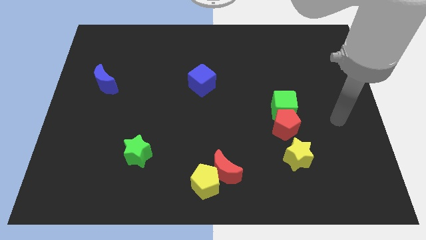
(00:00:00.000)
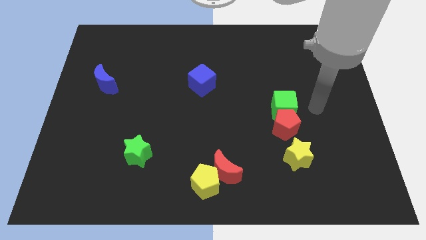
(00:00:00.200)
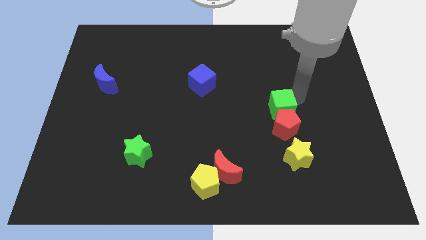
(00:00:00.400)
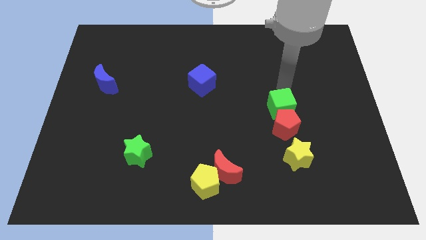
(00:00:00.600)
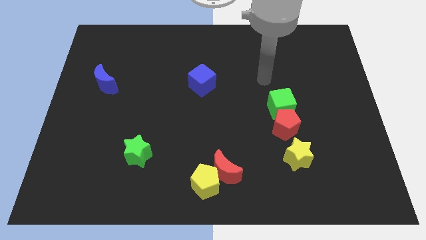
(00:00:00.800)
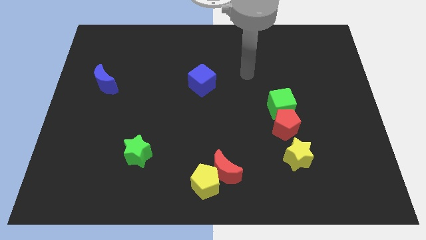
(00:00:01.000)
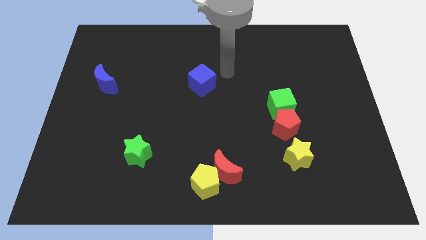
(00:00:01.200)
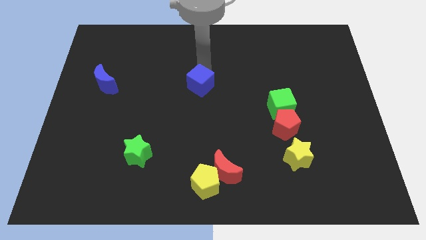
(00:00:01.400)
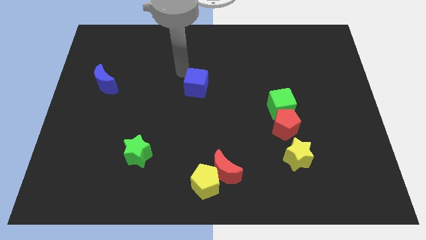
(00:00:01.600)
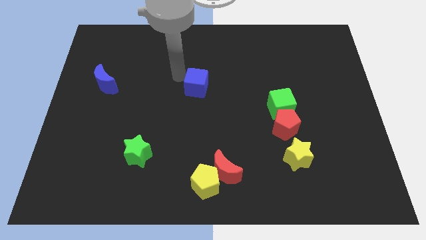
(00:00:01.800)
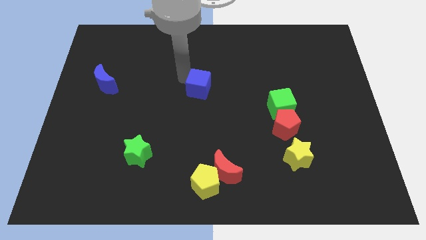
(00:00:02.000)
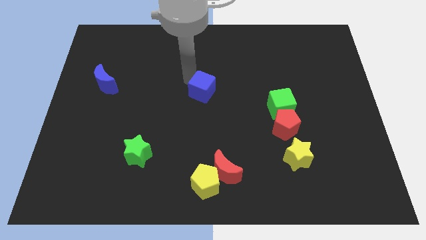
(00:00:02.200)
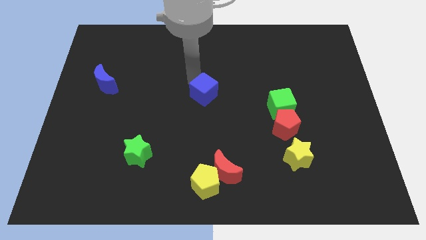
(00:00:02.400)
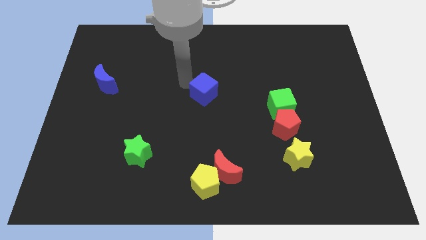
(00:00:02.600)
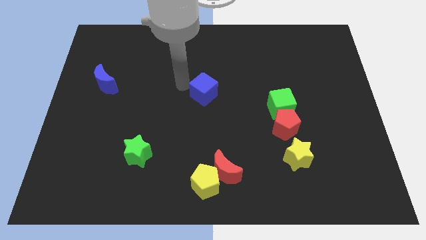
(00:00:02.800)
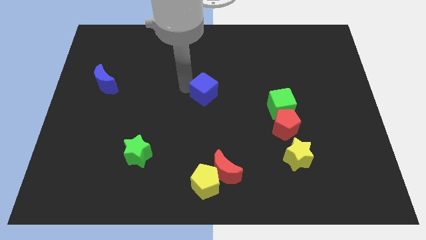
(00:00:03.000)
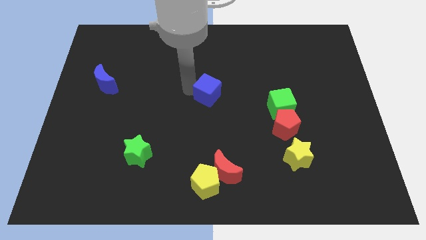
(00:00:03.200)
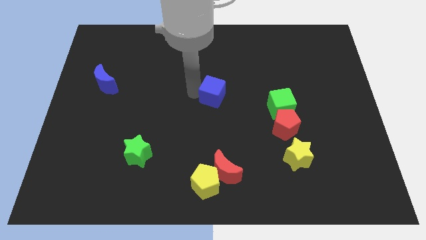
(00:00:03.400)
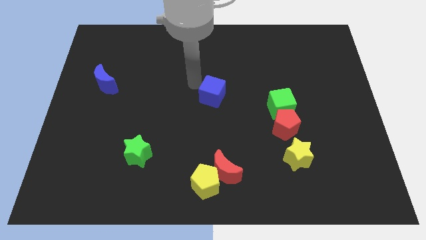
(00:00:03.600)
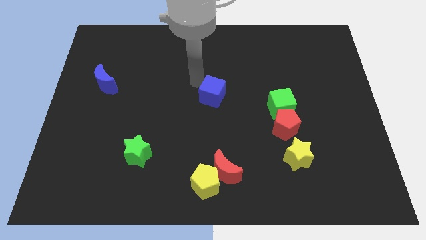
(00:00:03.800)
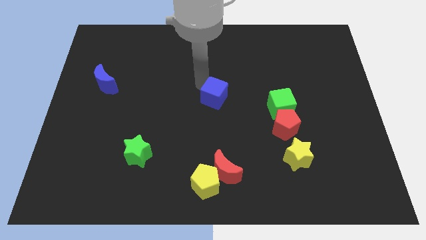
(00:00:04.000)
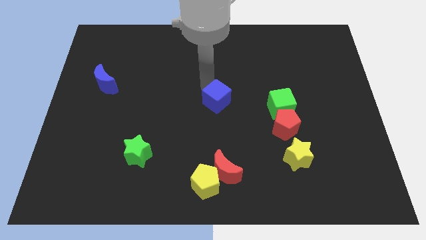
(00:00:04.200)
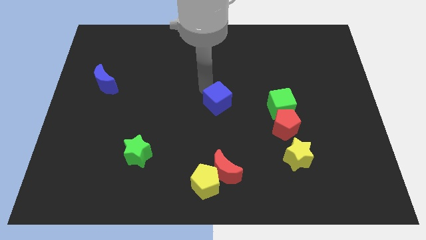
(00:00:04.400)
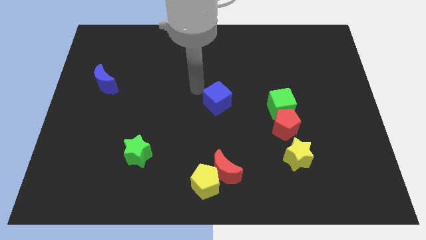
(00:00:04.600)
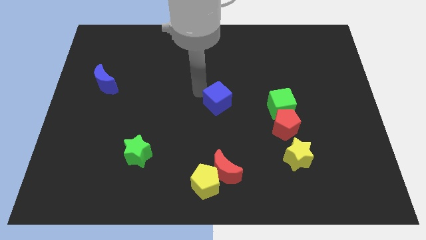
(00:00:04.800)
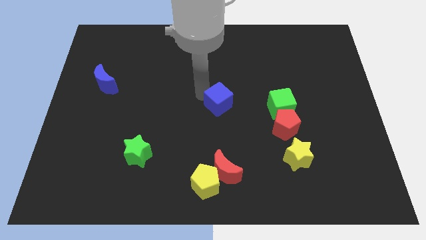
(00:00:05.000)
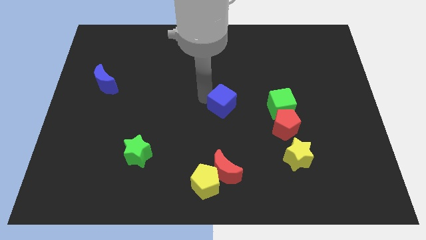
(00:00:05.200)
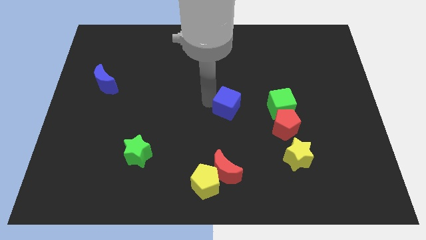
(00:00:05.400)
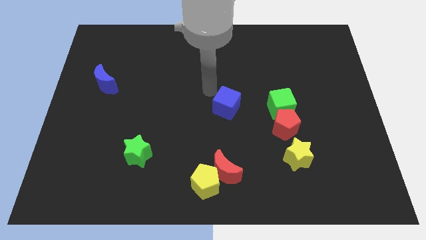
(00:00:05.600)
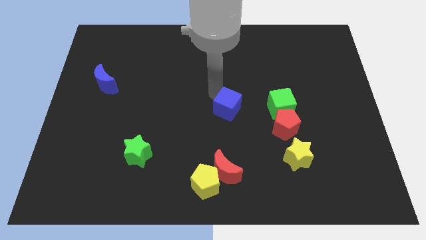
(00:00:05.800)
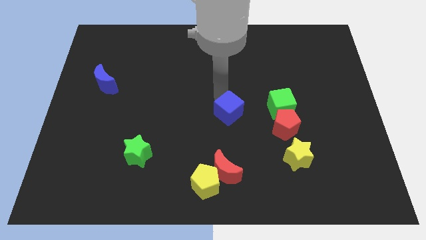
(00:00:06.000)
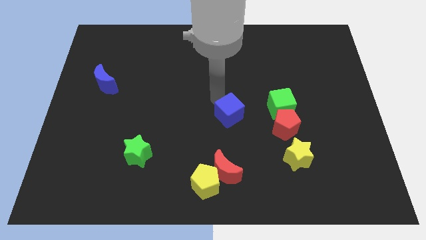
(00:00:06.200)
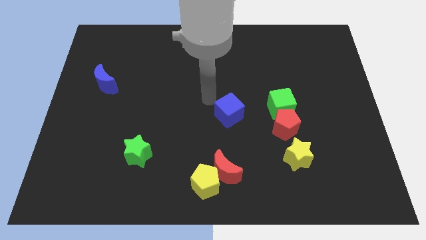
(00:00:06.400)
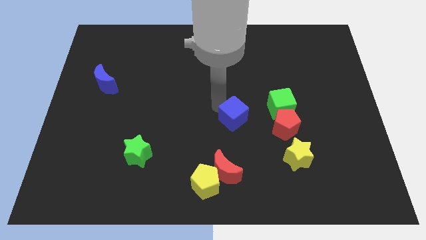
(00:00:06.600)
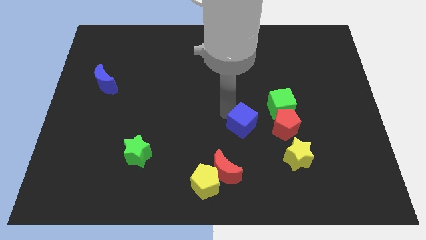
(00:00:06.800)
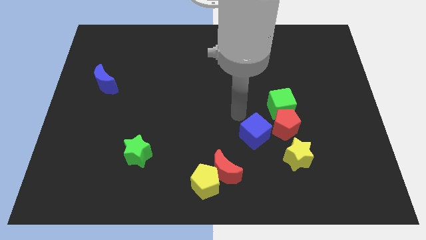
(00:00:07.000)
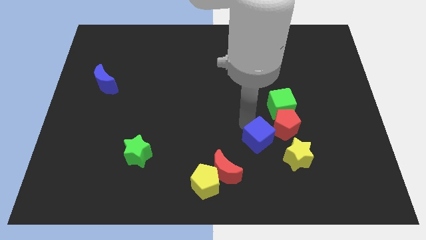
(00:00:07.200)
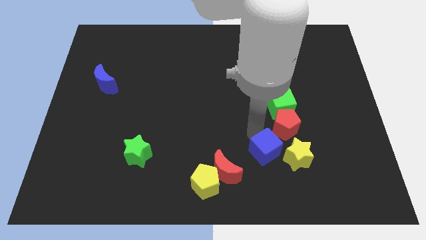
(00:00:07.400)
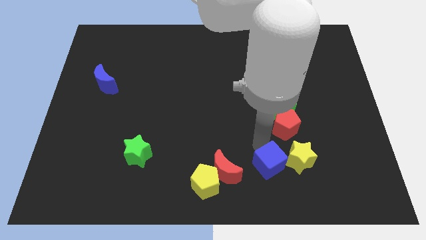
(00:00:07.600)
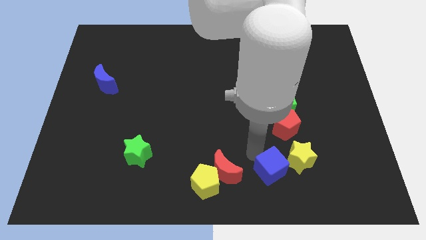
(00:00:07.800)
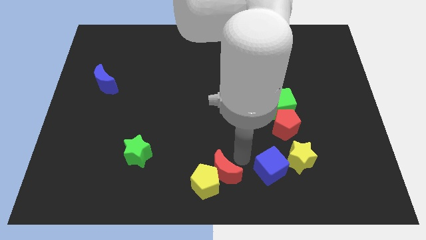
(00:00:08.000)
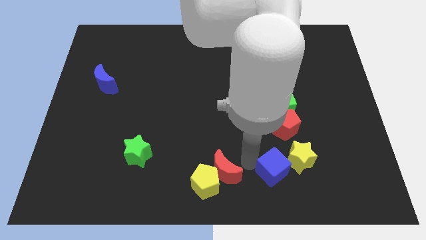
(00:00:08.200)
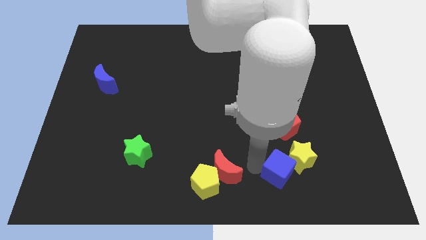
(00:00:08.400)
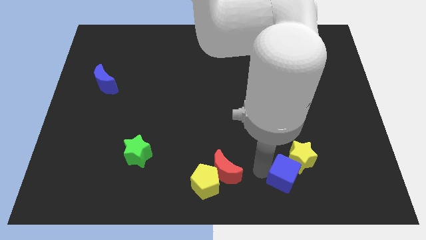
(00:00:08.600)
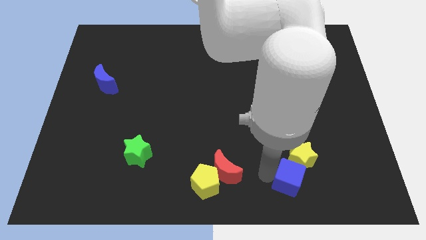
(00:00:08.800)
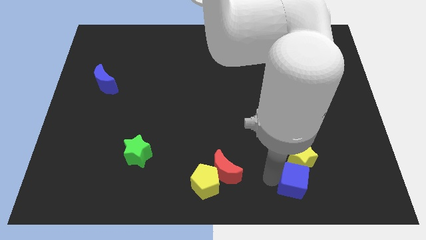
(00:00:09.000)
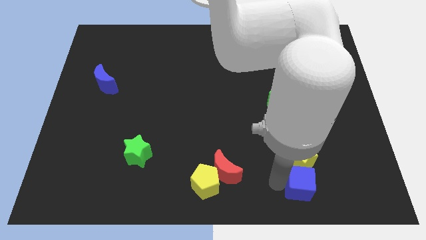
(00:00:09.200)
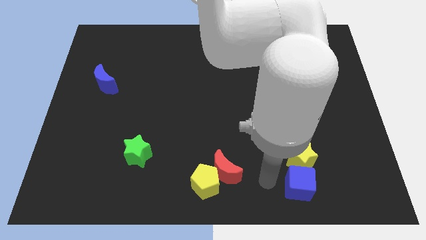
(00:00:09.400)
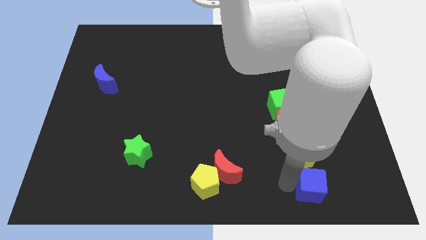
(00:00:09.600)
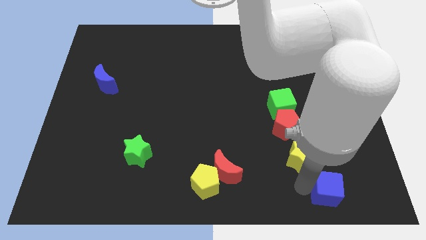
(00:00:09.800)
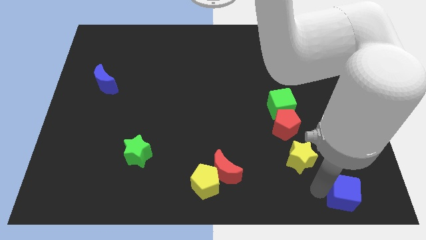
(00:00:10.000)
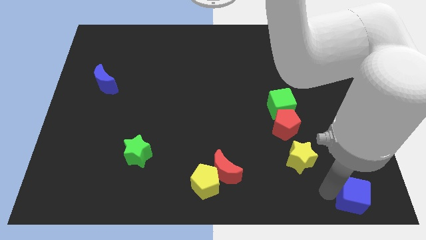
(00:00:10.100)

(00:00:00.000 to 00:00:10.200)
move the blue cube to the bottom right corner
